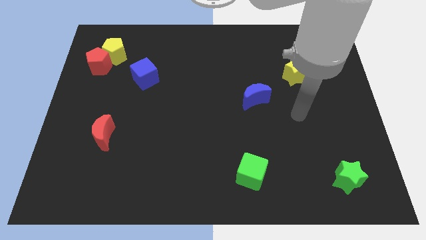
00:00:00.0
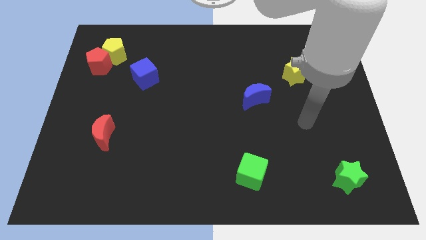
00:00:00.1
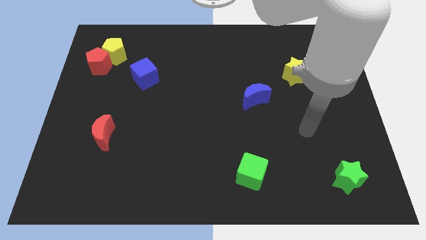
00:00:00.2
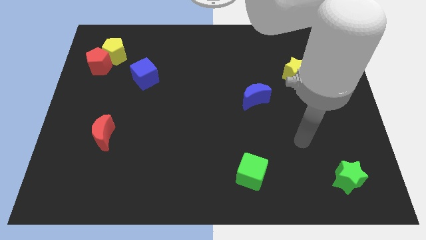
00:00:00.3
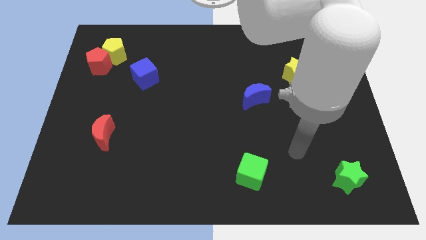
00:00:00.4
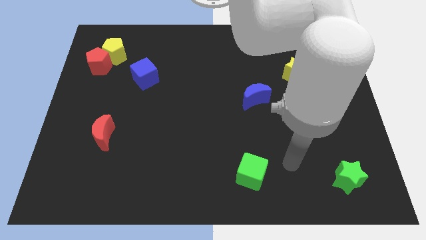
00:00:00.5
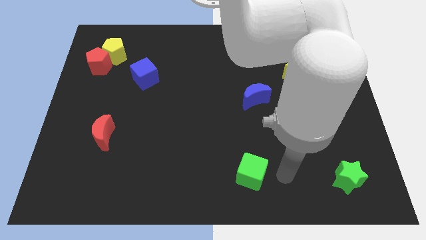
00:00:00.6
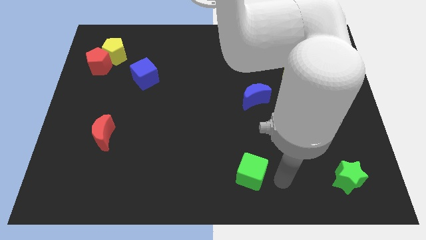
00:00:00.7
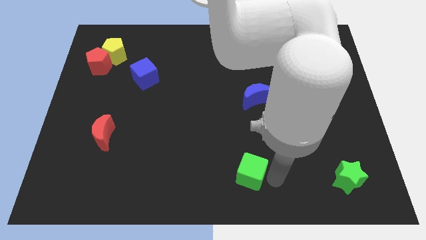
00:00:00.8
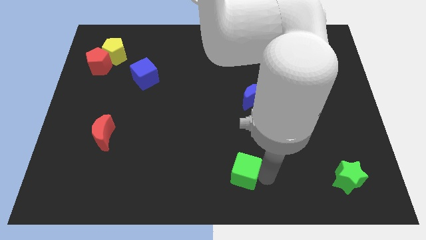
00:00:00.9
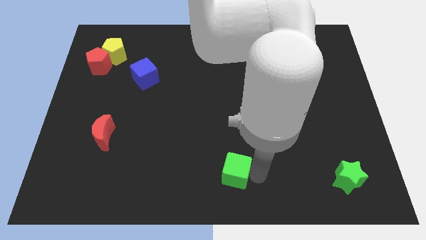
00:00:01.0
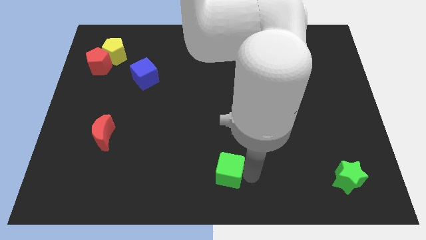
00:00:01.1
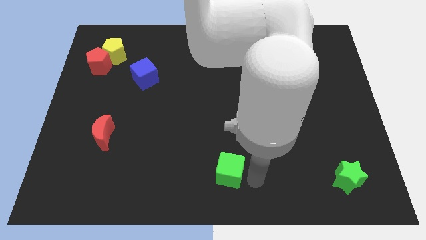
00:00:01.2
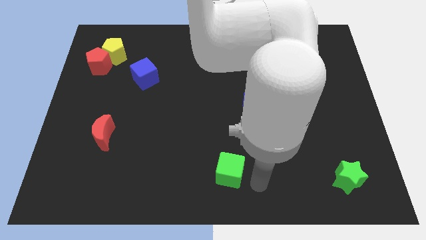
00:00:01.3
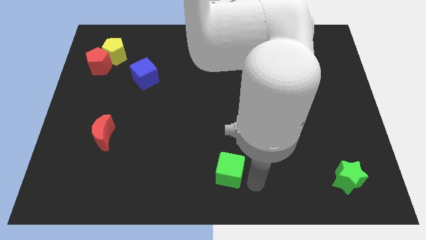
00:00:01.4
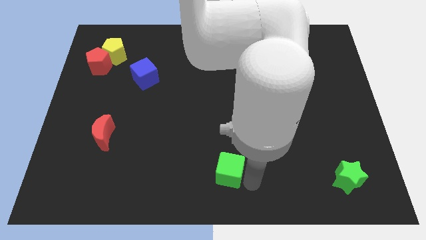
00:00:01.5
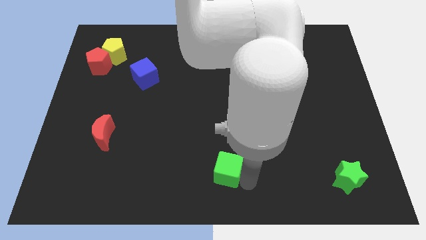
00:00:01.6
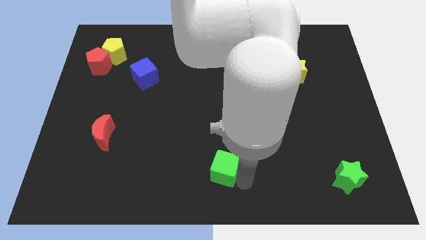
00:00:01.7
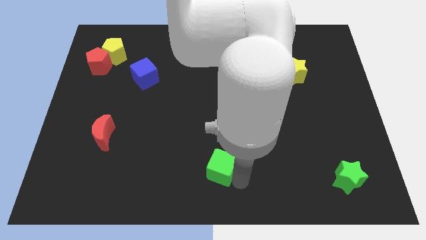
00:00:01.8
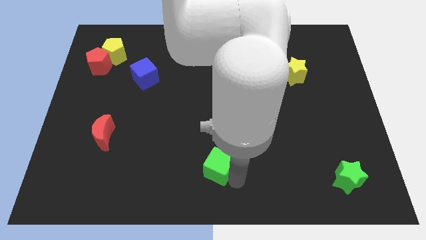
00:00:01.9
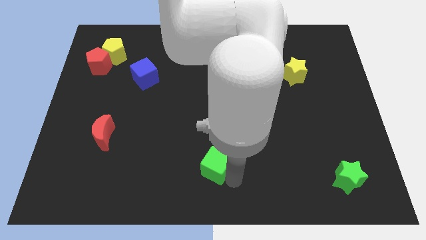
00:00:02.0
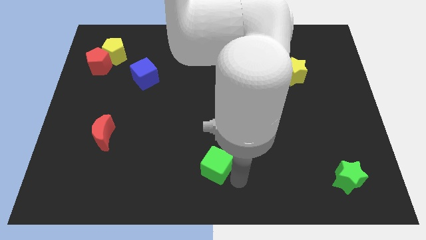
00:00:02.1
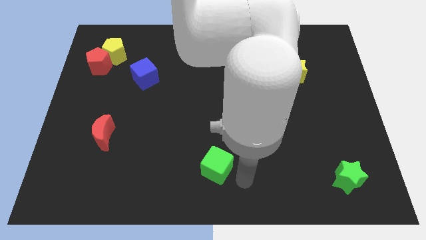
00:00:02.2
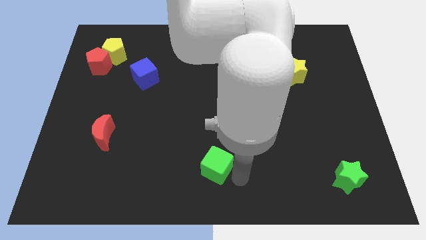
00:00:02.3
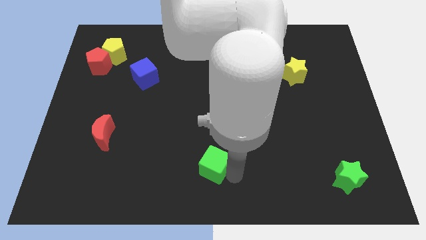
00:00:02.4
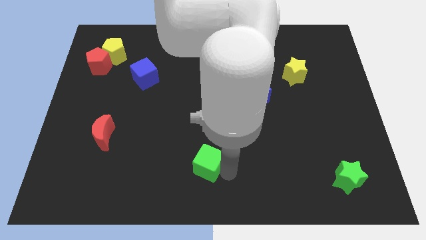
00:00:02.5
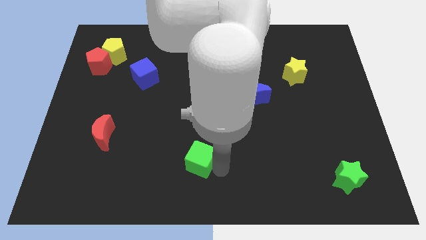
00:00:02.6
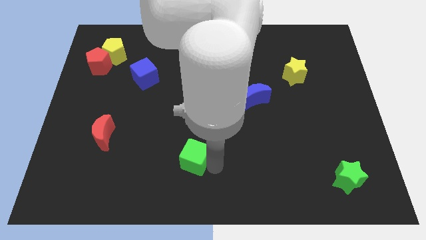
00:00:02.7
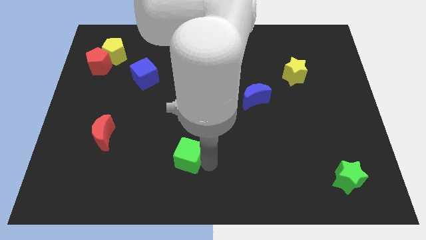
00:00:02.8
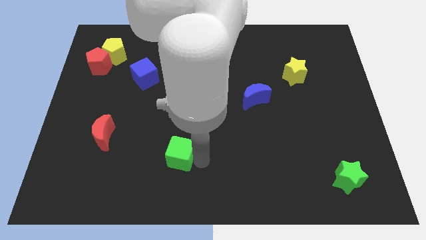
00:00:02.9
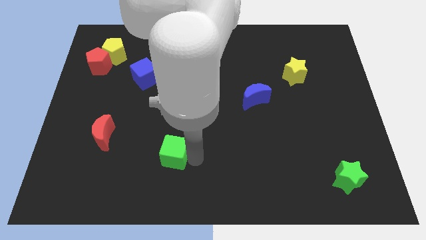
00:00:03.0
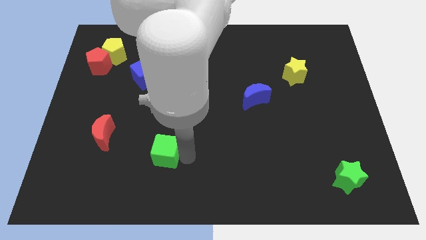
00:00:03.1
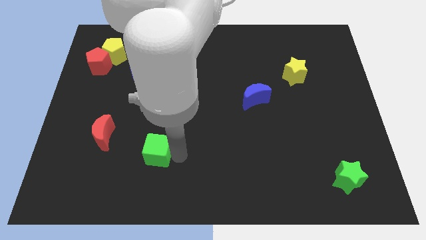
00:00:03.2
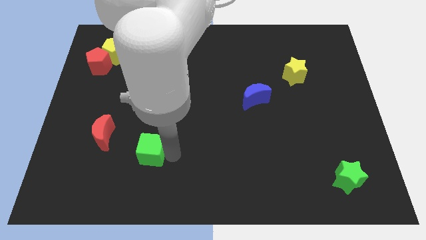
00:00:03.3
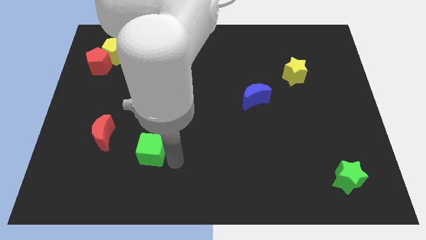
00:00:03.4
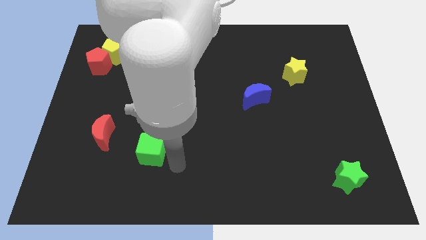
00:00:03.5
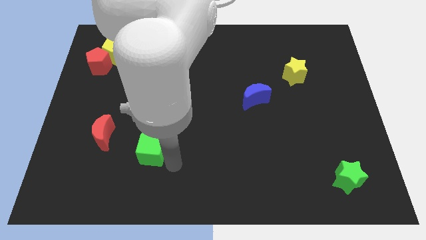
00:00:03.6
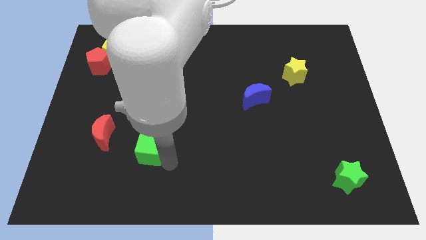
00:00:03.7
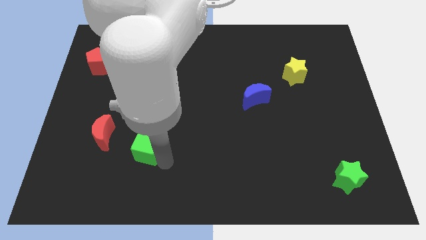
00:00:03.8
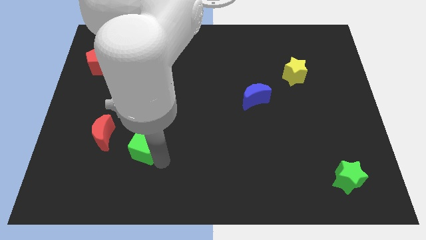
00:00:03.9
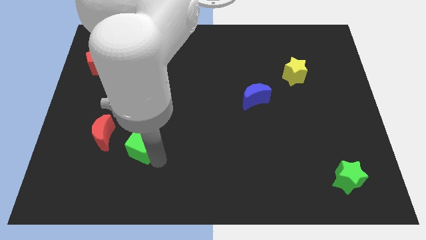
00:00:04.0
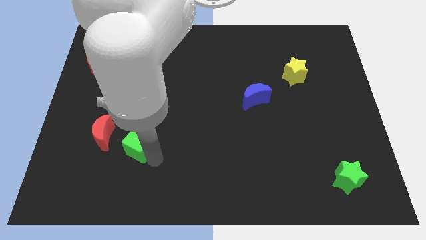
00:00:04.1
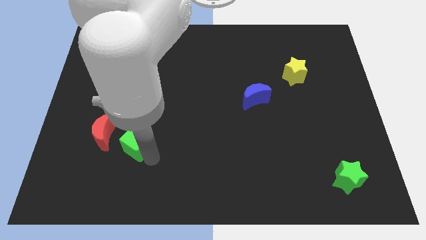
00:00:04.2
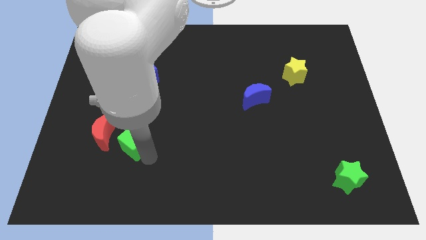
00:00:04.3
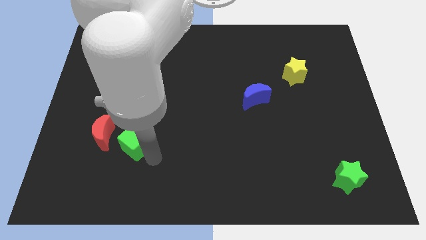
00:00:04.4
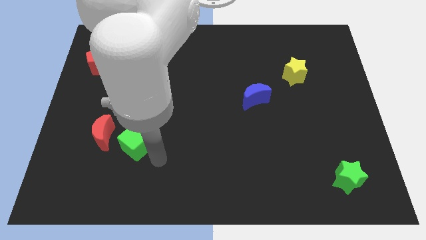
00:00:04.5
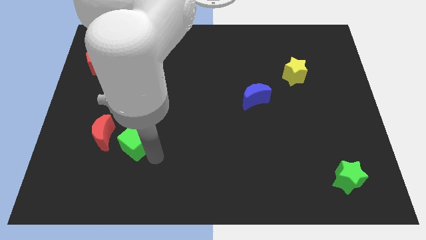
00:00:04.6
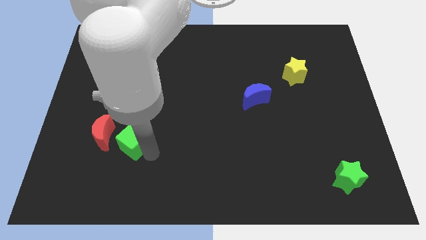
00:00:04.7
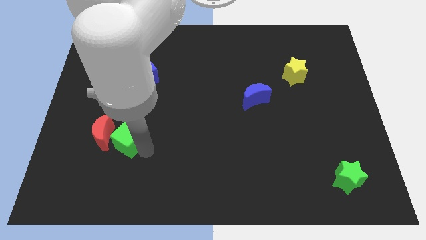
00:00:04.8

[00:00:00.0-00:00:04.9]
slide the green cube towards the red moon

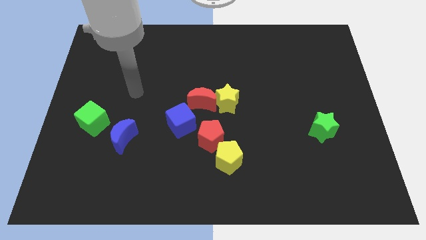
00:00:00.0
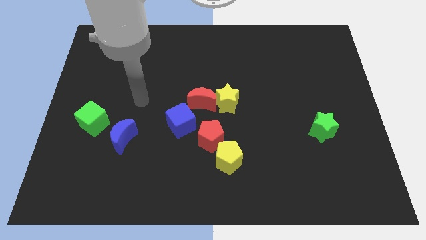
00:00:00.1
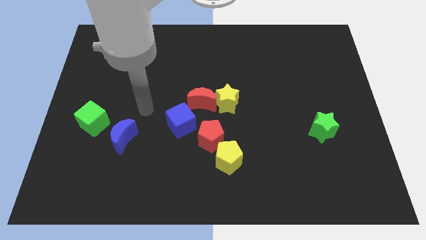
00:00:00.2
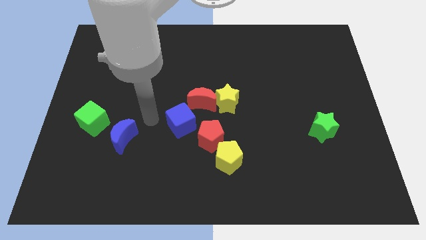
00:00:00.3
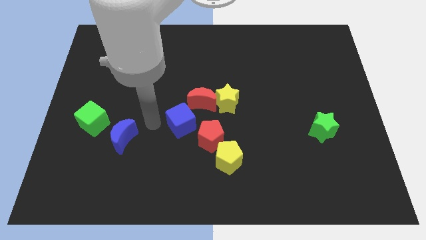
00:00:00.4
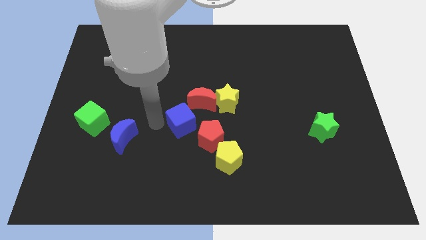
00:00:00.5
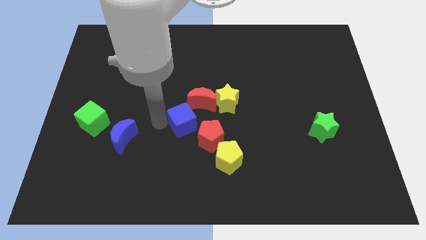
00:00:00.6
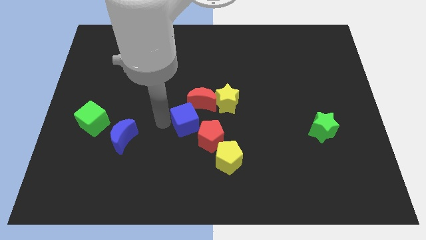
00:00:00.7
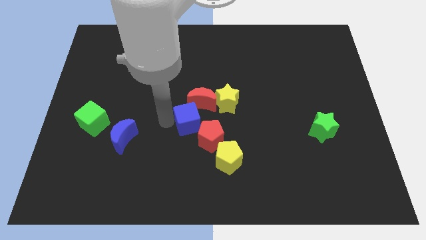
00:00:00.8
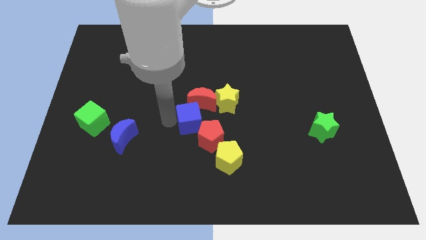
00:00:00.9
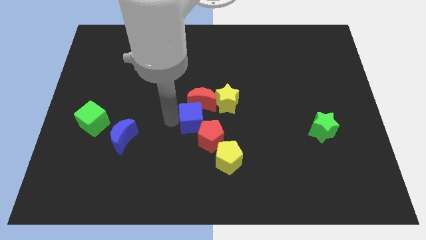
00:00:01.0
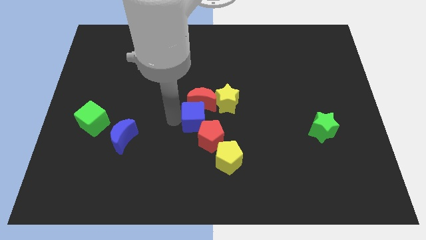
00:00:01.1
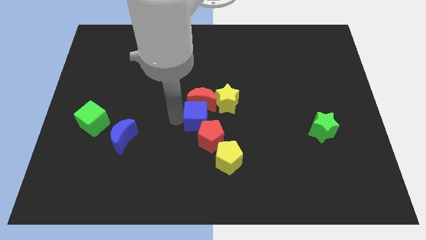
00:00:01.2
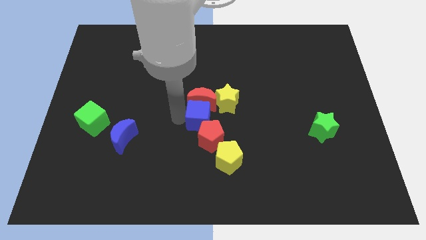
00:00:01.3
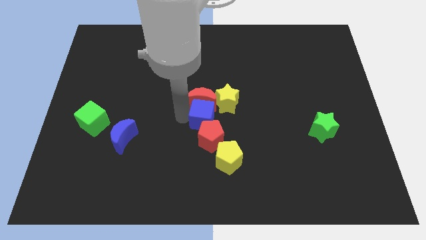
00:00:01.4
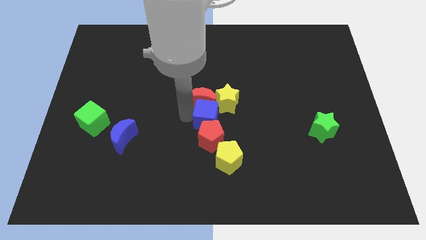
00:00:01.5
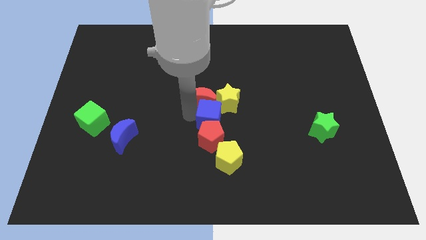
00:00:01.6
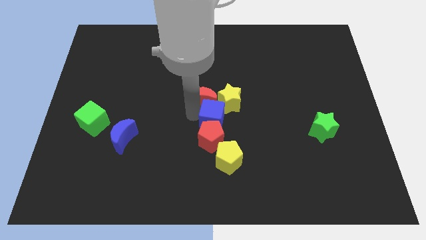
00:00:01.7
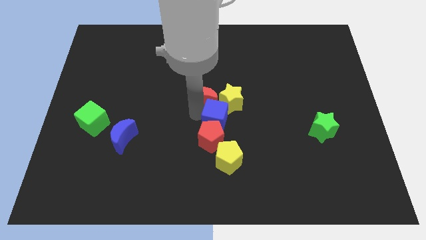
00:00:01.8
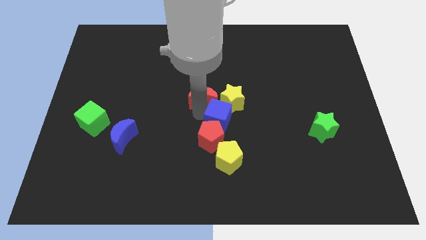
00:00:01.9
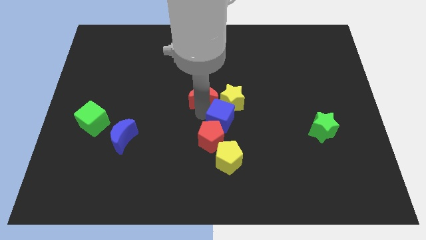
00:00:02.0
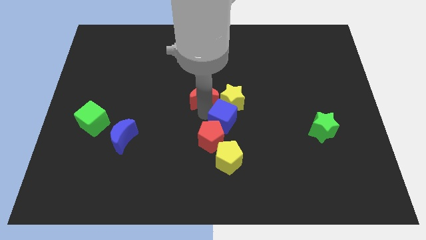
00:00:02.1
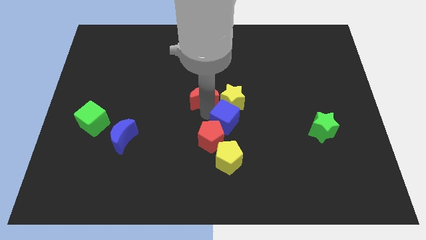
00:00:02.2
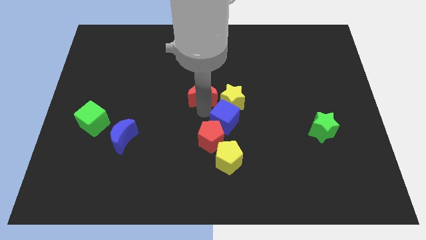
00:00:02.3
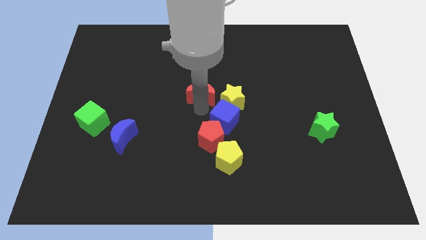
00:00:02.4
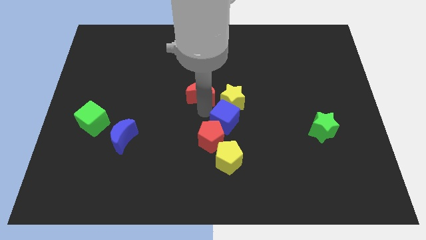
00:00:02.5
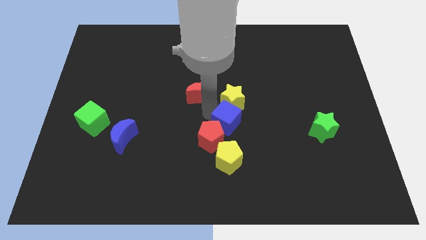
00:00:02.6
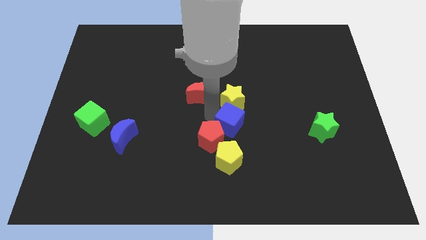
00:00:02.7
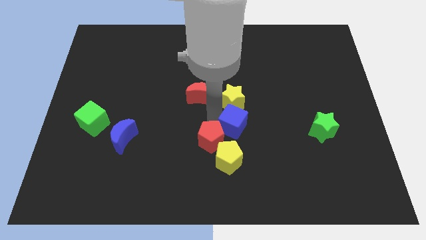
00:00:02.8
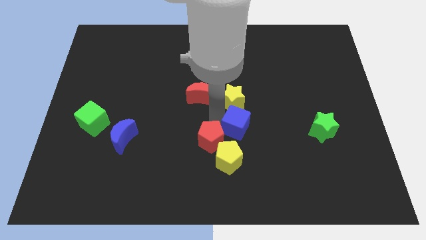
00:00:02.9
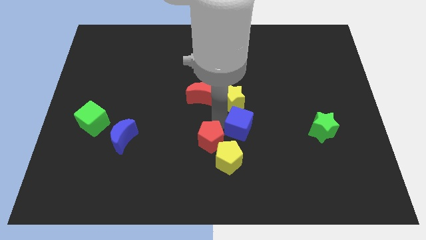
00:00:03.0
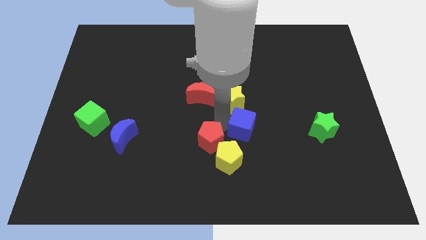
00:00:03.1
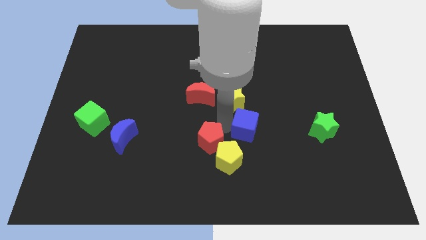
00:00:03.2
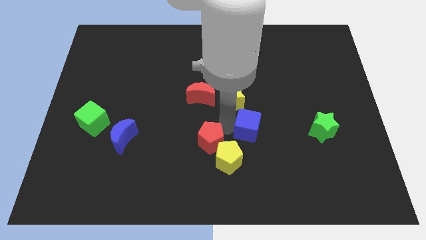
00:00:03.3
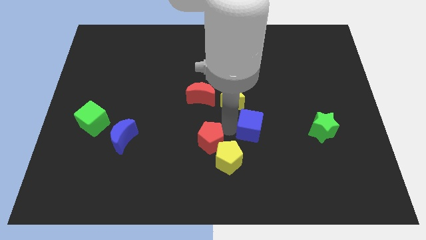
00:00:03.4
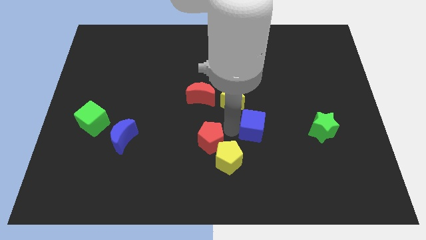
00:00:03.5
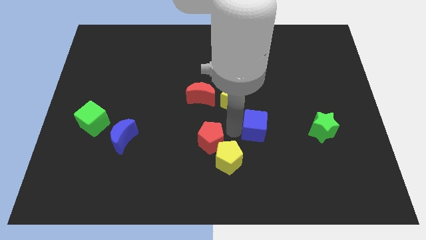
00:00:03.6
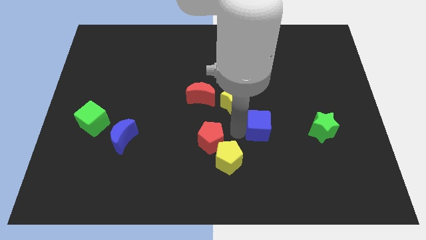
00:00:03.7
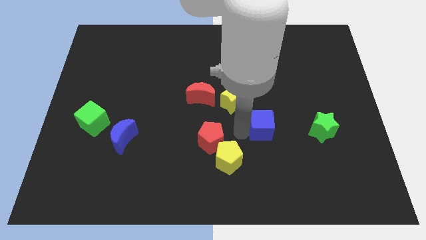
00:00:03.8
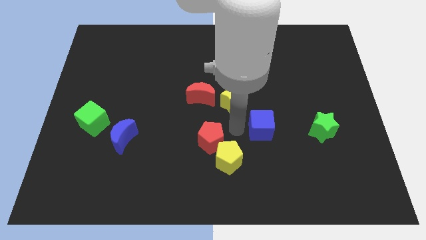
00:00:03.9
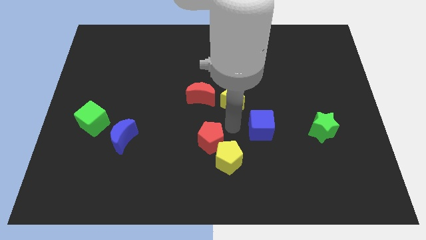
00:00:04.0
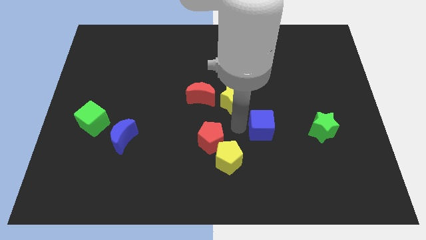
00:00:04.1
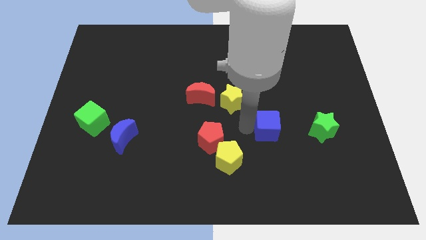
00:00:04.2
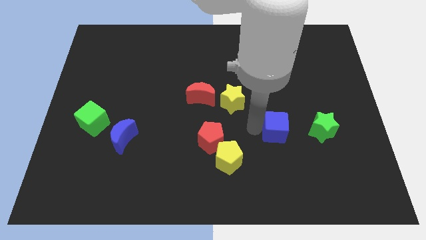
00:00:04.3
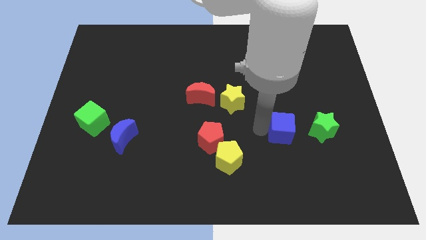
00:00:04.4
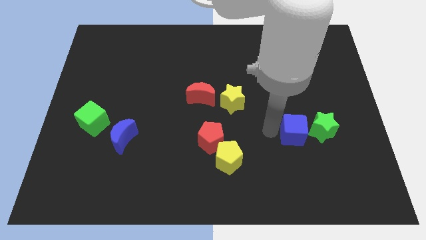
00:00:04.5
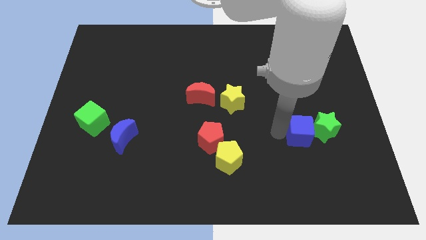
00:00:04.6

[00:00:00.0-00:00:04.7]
put the blue cube next to the green star
